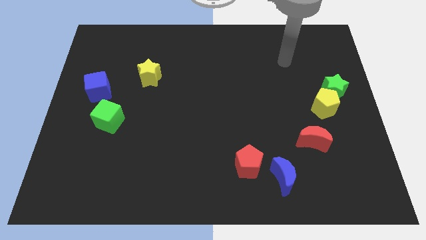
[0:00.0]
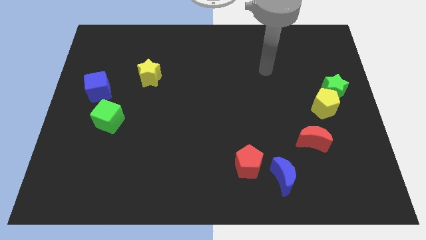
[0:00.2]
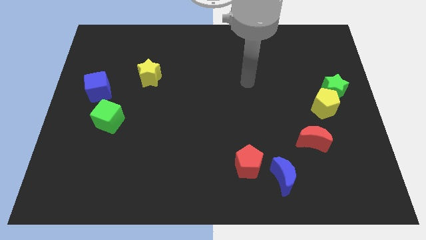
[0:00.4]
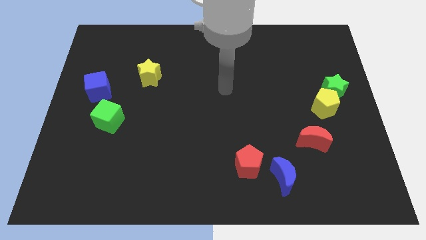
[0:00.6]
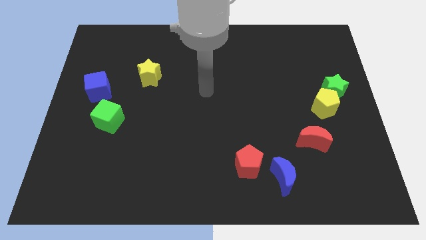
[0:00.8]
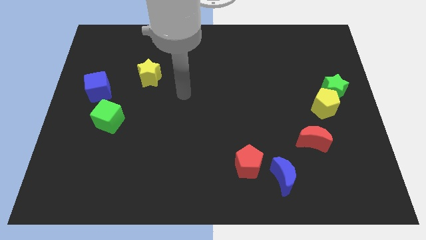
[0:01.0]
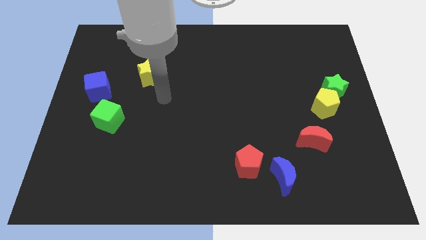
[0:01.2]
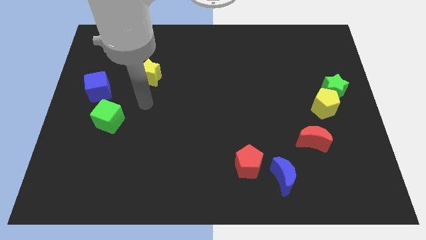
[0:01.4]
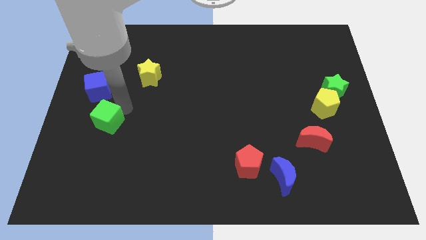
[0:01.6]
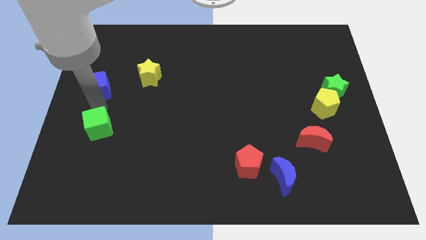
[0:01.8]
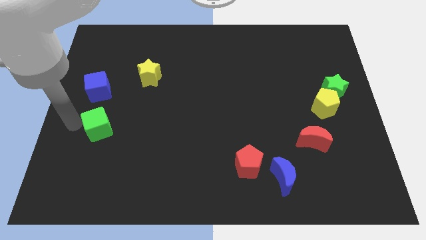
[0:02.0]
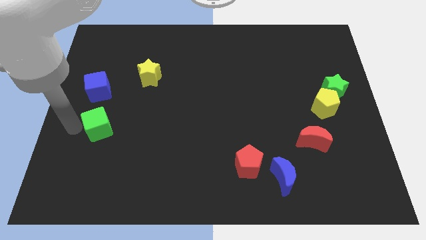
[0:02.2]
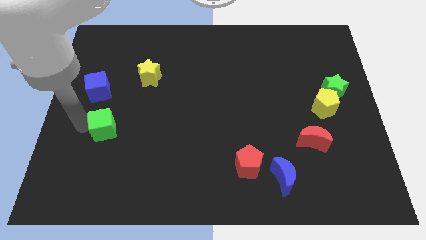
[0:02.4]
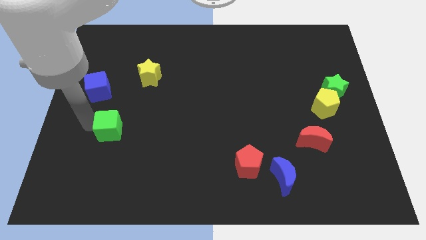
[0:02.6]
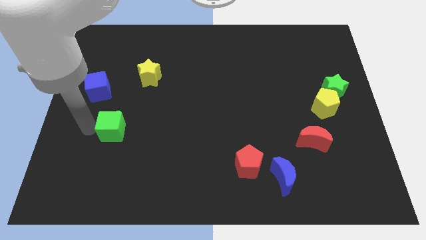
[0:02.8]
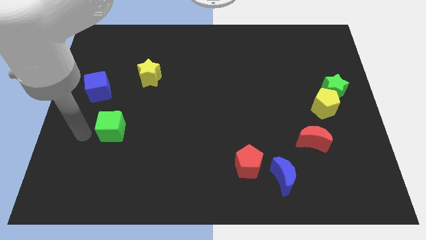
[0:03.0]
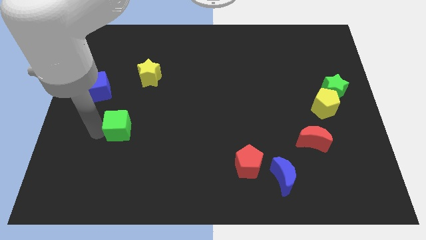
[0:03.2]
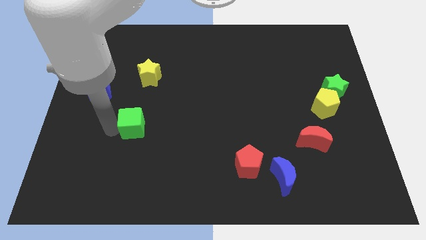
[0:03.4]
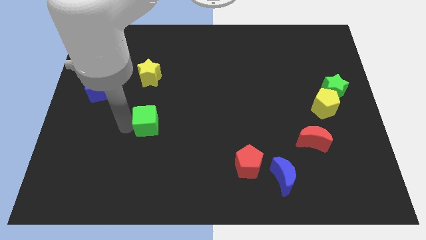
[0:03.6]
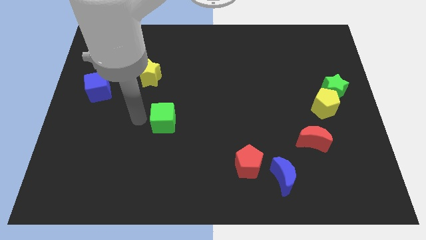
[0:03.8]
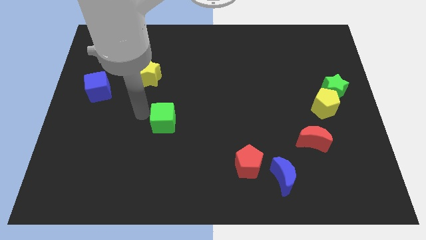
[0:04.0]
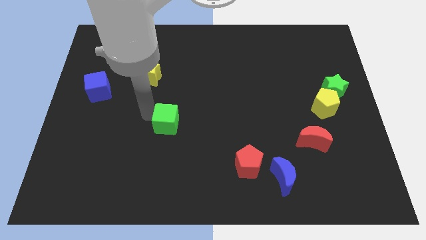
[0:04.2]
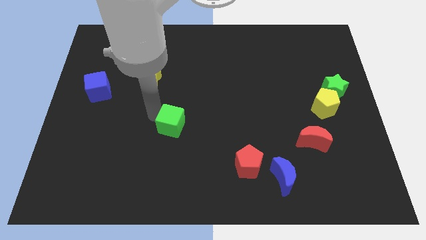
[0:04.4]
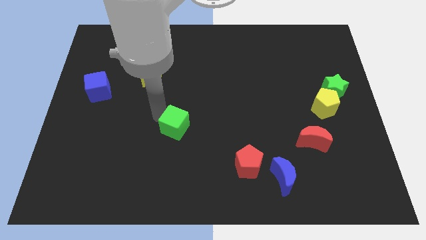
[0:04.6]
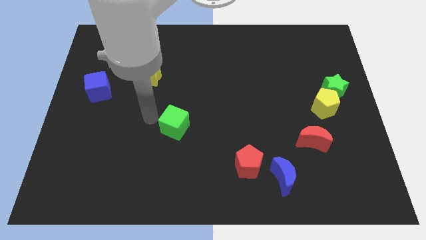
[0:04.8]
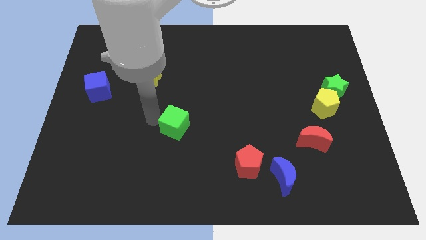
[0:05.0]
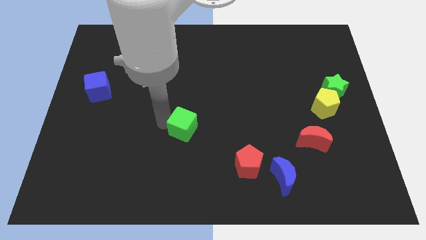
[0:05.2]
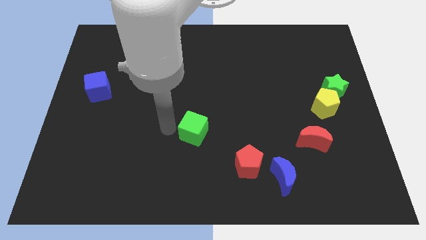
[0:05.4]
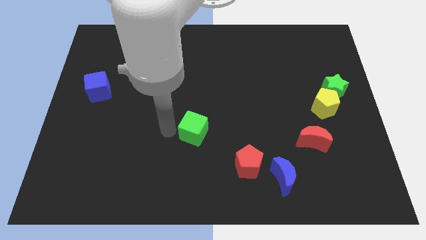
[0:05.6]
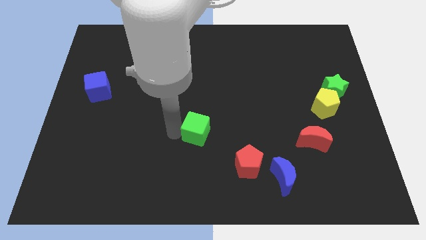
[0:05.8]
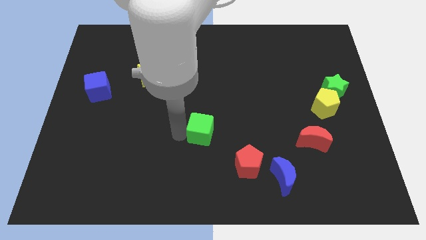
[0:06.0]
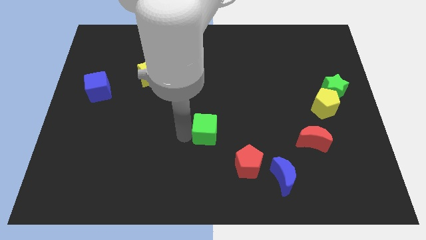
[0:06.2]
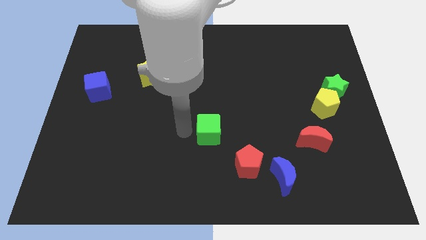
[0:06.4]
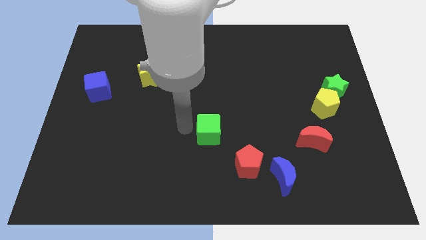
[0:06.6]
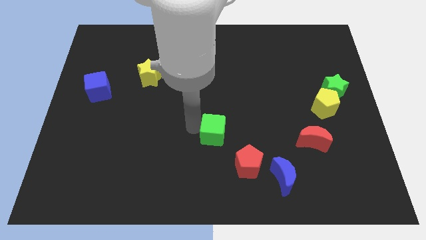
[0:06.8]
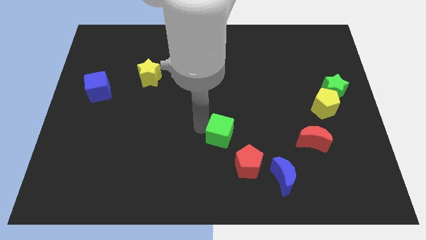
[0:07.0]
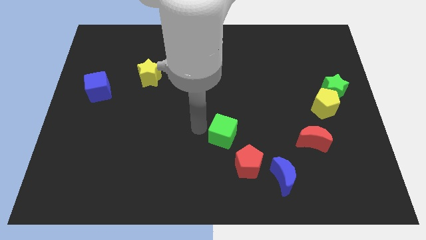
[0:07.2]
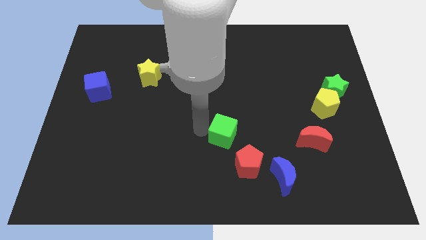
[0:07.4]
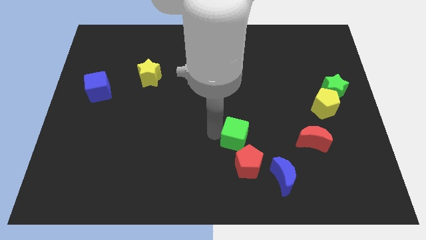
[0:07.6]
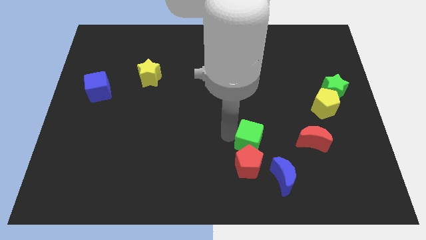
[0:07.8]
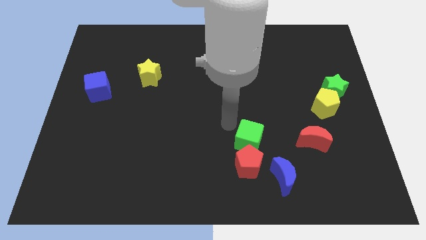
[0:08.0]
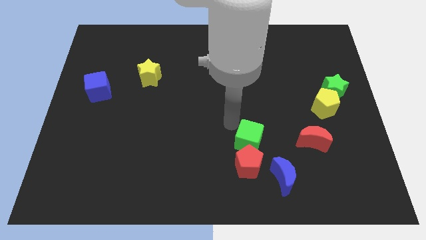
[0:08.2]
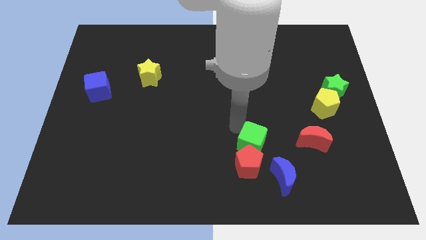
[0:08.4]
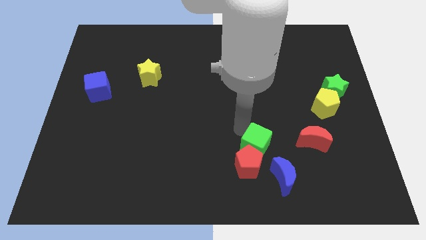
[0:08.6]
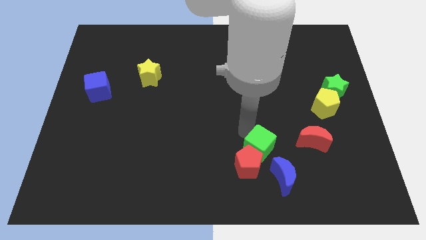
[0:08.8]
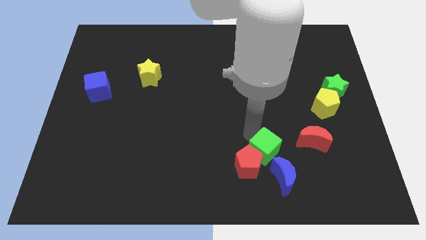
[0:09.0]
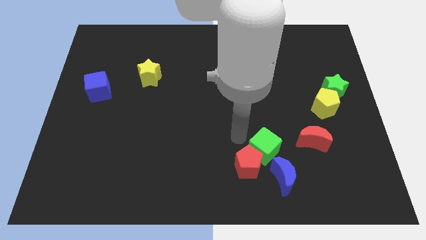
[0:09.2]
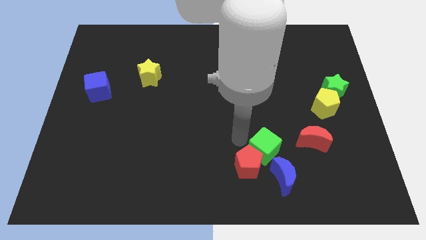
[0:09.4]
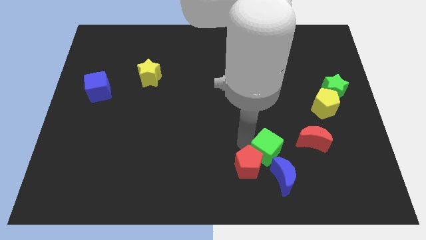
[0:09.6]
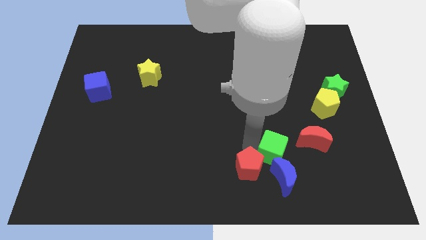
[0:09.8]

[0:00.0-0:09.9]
move the green cube diagonally down and to the left of the red moon

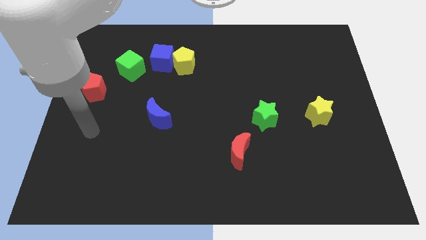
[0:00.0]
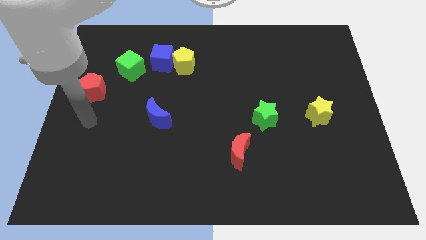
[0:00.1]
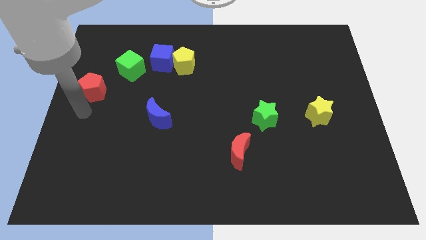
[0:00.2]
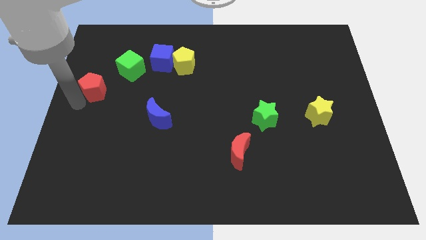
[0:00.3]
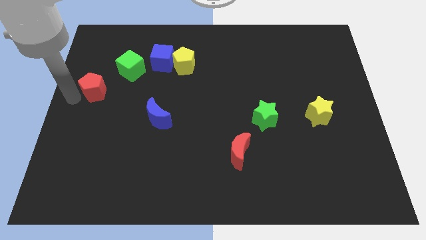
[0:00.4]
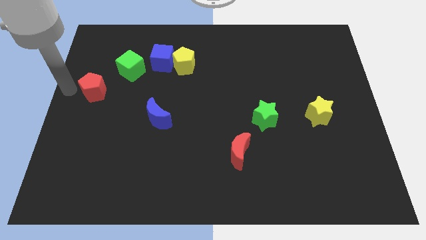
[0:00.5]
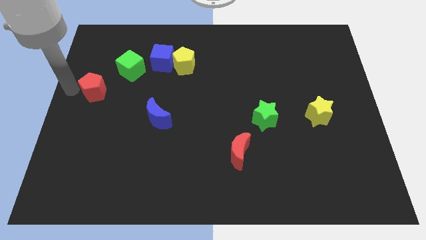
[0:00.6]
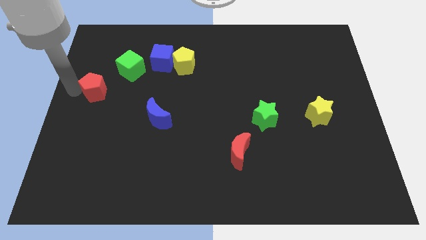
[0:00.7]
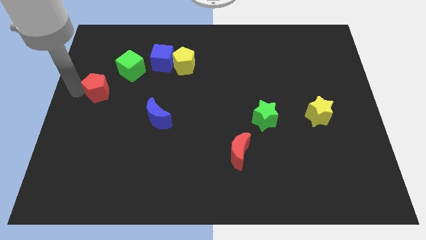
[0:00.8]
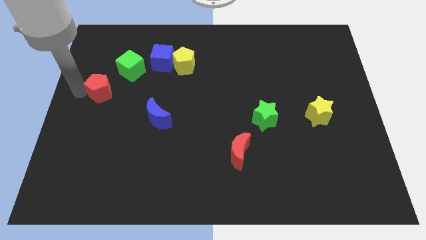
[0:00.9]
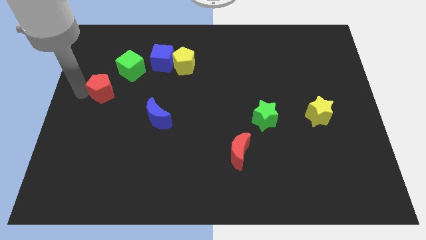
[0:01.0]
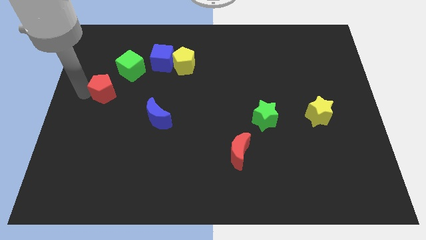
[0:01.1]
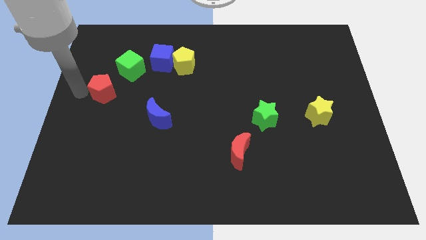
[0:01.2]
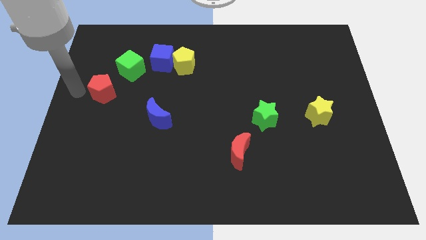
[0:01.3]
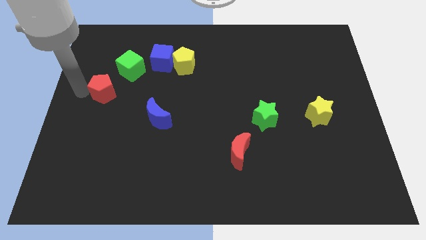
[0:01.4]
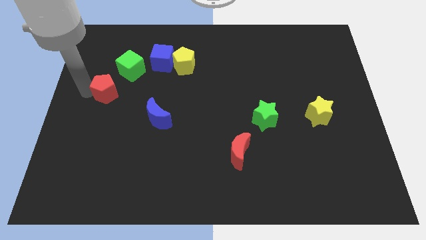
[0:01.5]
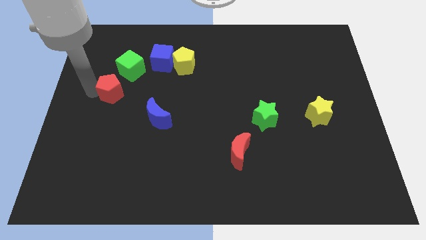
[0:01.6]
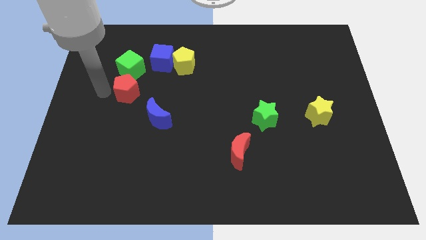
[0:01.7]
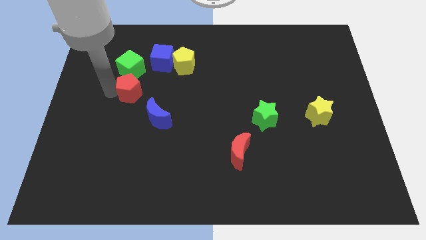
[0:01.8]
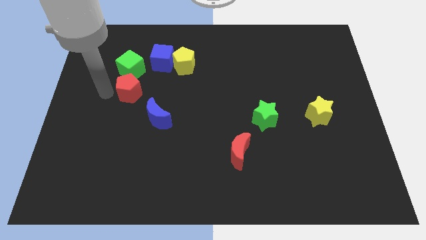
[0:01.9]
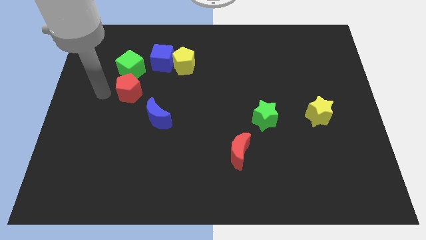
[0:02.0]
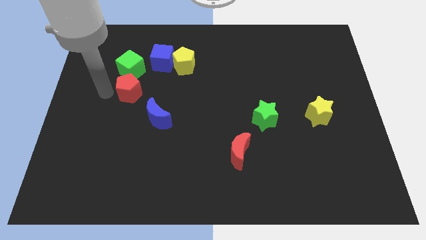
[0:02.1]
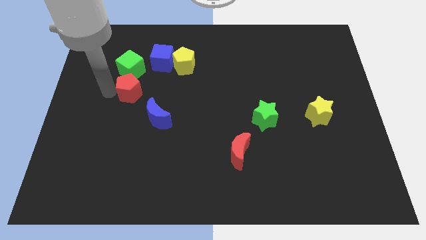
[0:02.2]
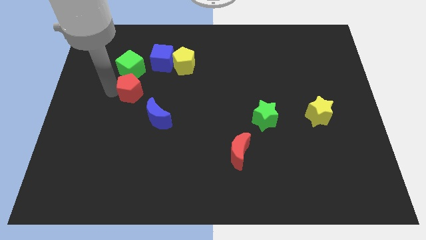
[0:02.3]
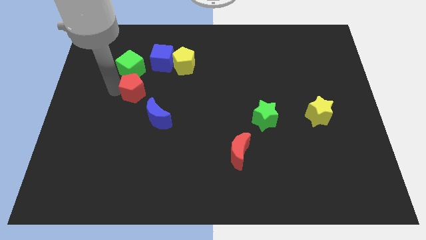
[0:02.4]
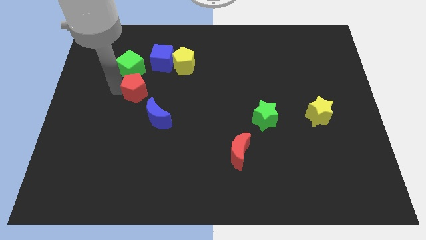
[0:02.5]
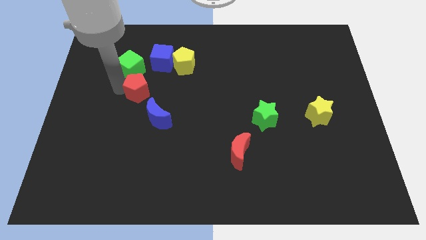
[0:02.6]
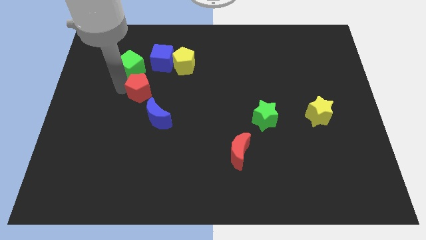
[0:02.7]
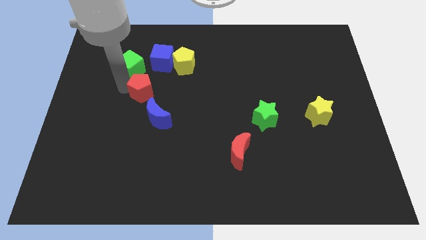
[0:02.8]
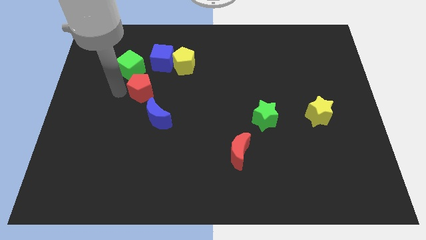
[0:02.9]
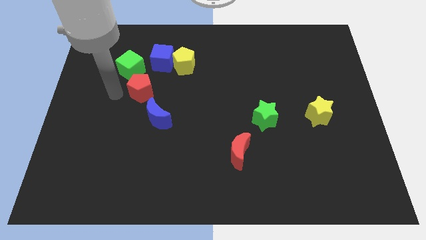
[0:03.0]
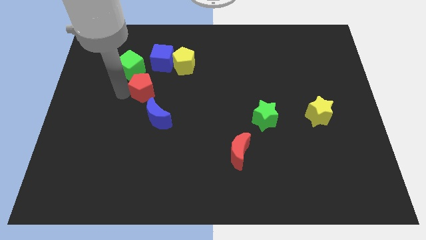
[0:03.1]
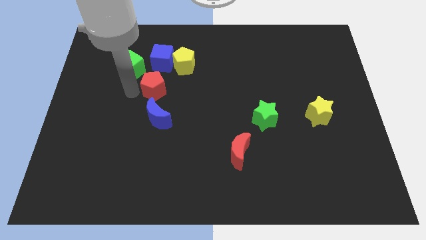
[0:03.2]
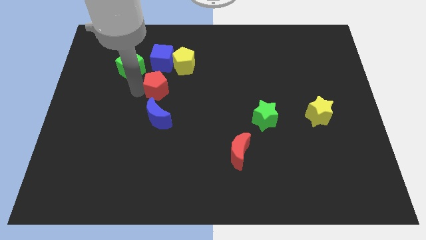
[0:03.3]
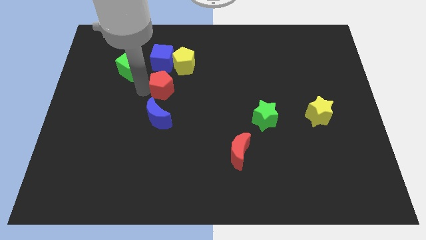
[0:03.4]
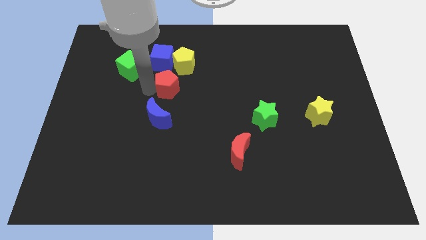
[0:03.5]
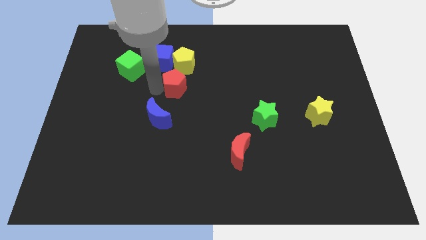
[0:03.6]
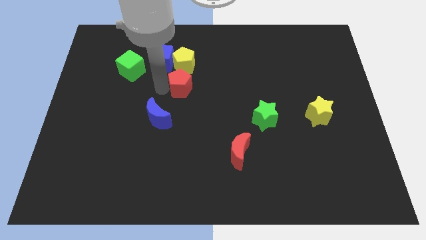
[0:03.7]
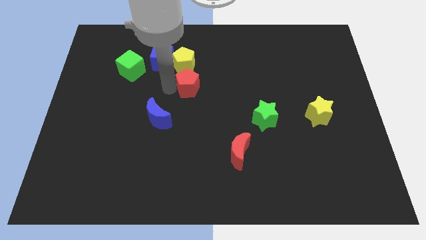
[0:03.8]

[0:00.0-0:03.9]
slide the red pentagon to the bottom right of the yellow pentagon
